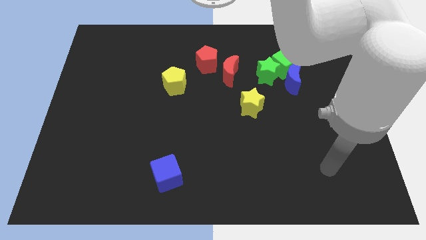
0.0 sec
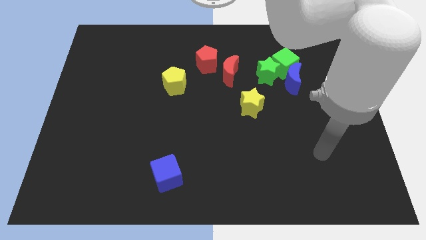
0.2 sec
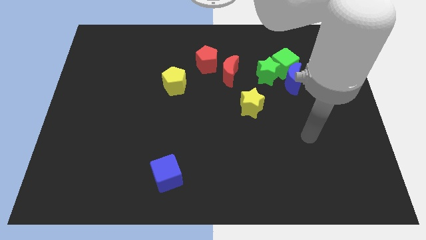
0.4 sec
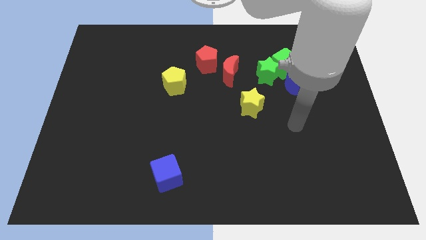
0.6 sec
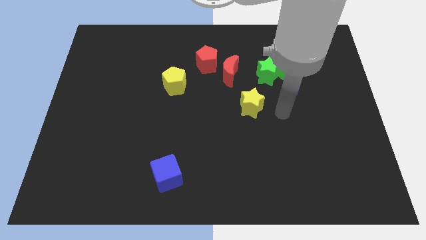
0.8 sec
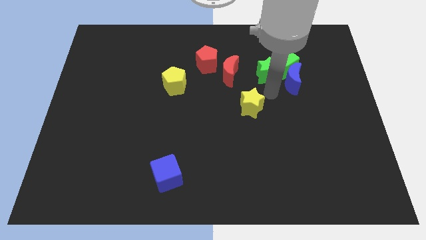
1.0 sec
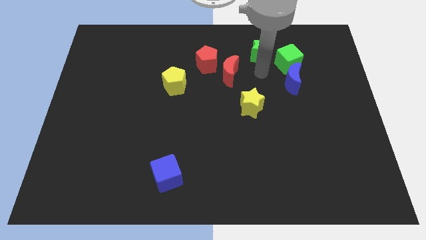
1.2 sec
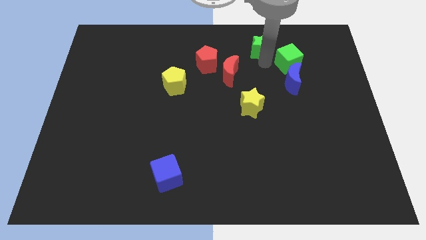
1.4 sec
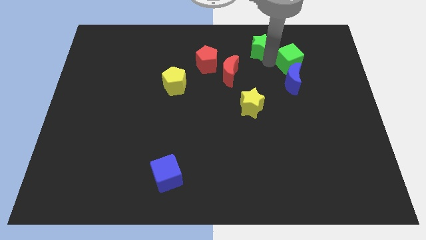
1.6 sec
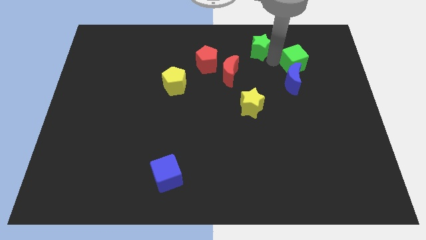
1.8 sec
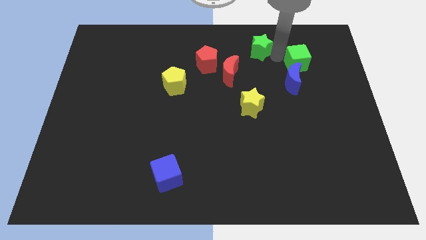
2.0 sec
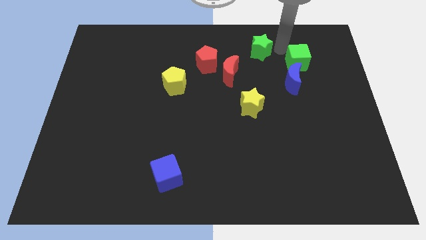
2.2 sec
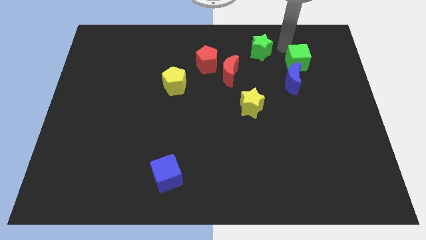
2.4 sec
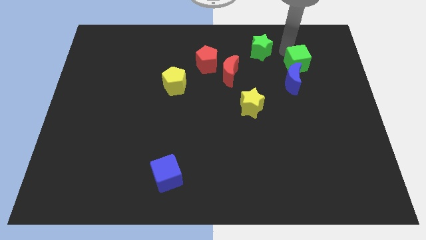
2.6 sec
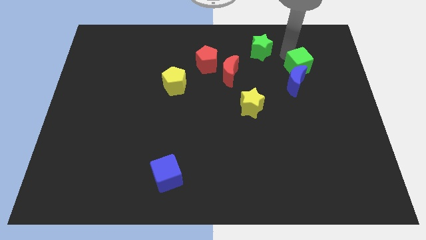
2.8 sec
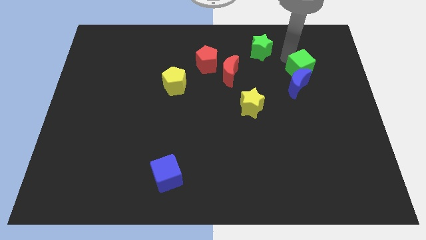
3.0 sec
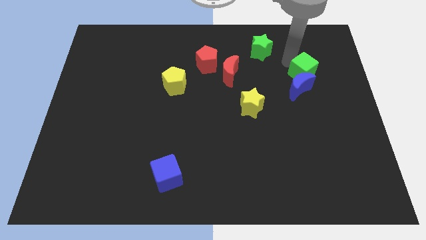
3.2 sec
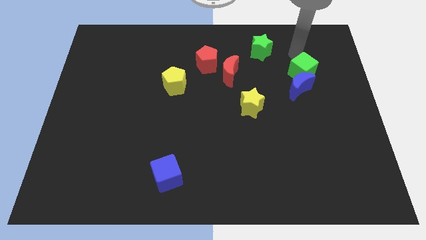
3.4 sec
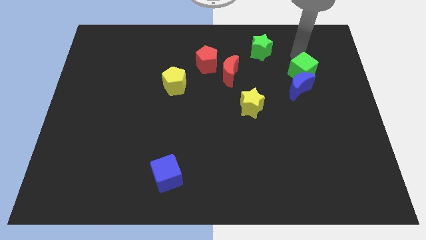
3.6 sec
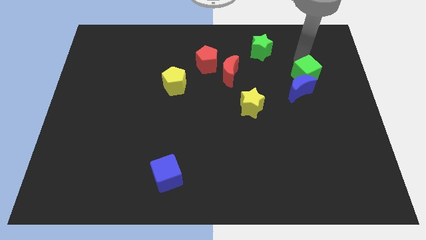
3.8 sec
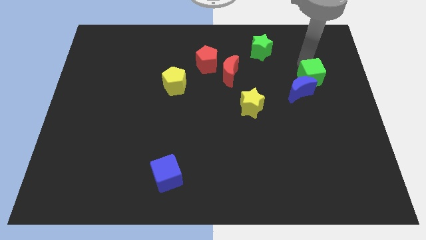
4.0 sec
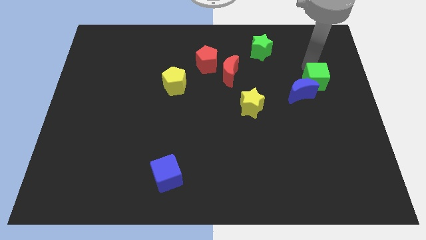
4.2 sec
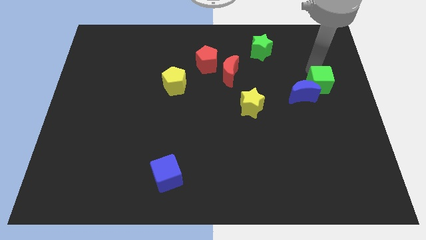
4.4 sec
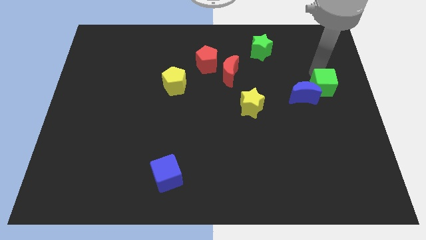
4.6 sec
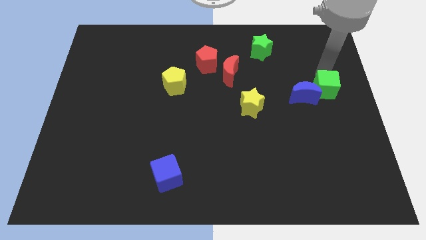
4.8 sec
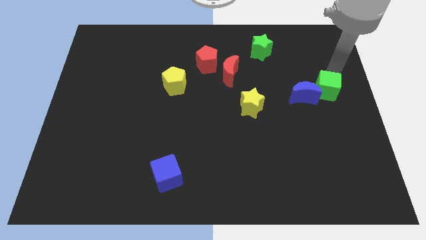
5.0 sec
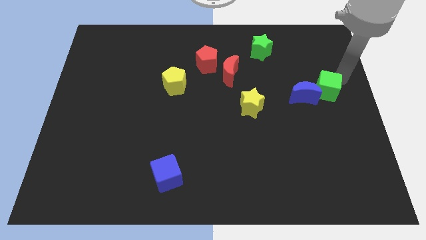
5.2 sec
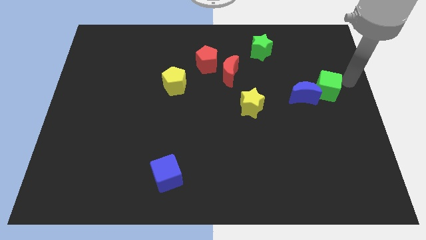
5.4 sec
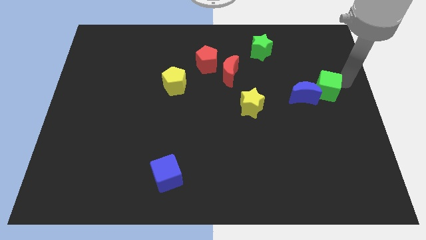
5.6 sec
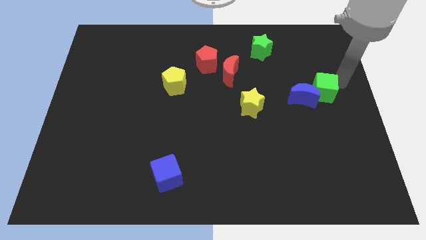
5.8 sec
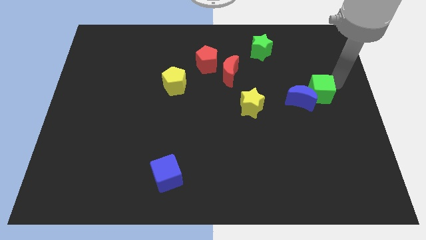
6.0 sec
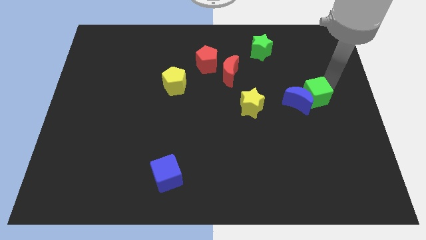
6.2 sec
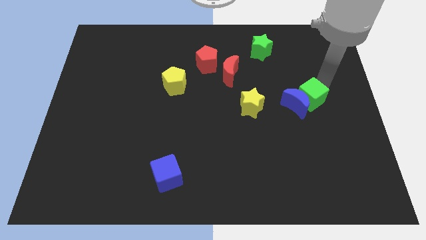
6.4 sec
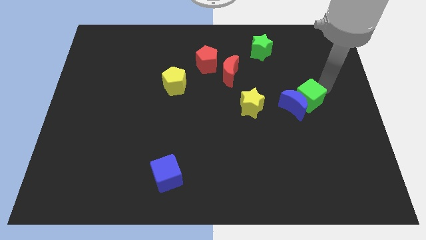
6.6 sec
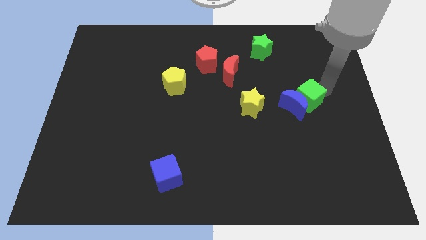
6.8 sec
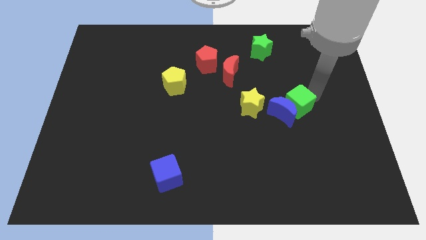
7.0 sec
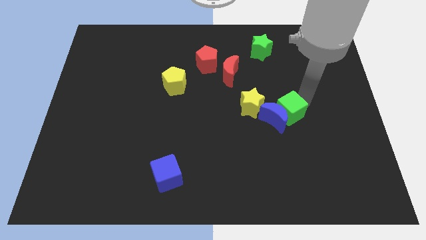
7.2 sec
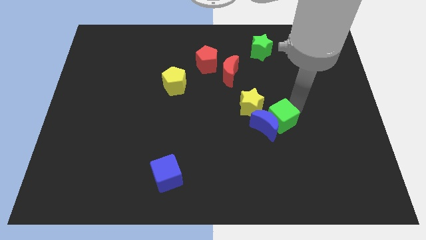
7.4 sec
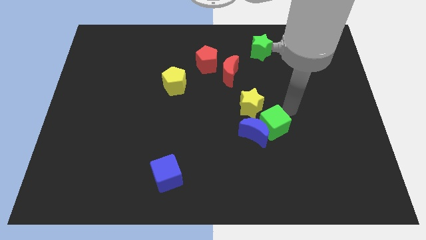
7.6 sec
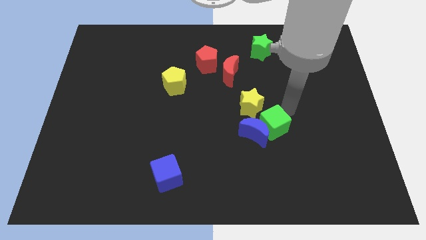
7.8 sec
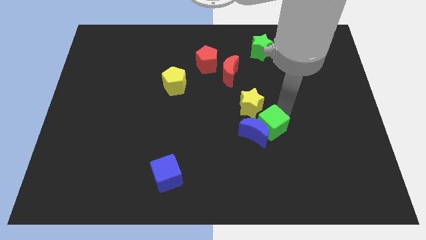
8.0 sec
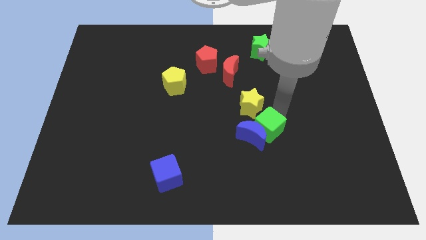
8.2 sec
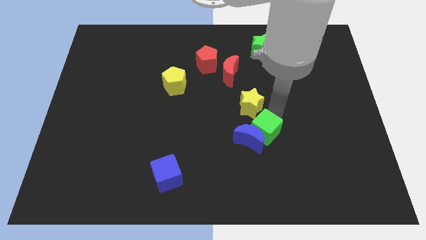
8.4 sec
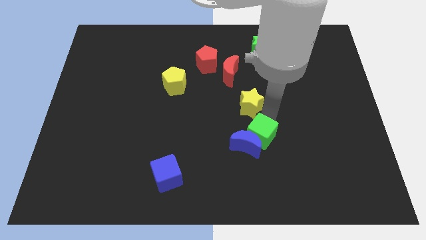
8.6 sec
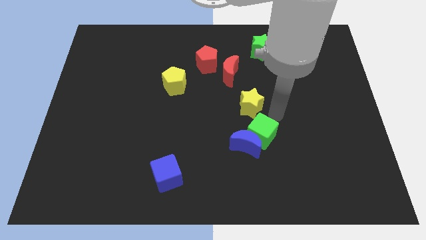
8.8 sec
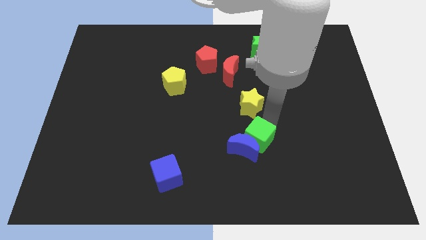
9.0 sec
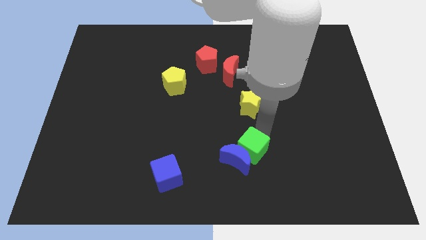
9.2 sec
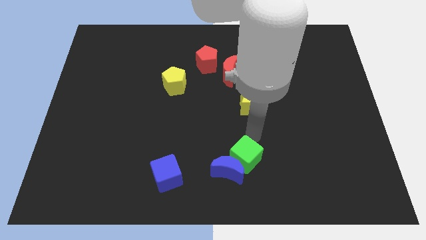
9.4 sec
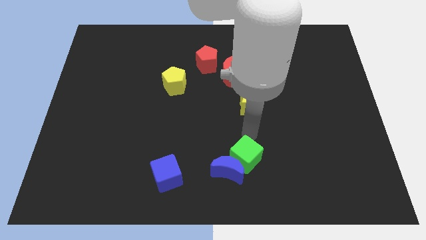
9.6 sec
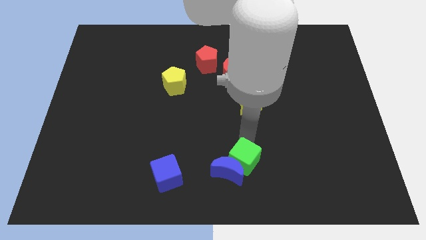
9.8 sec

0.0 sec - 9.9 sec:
slide the green cube to the bottom side
